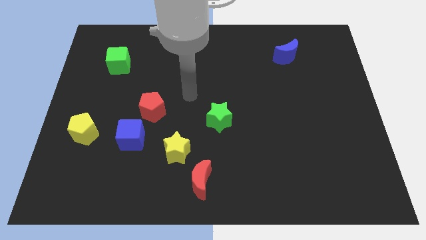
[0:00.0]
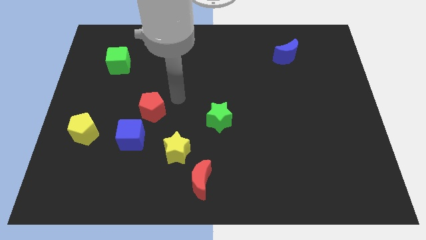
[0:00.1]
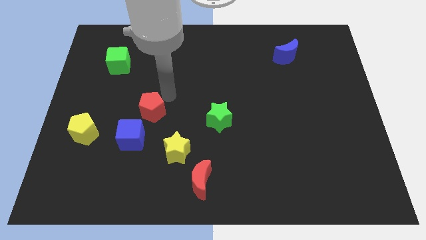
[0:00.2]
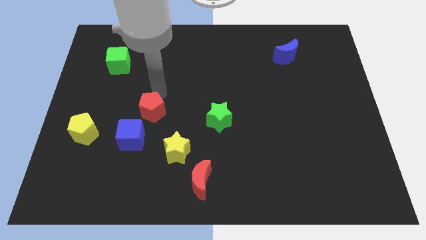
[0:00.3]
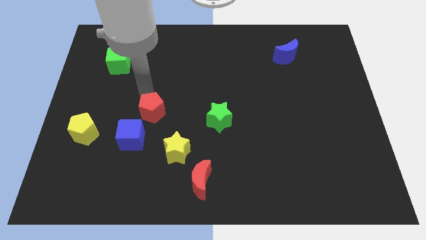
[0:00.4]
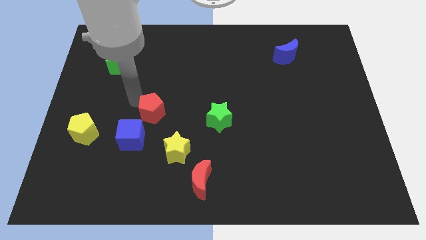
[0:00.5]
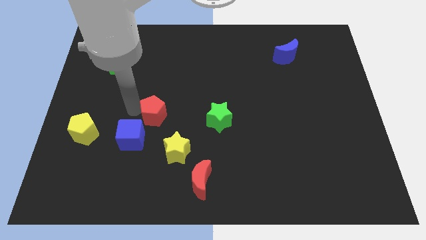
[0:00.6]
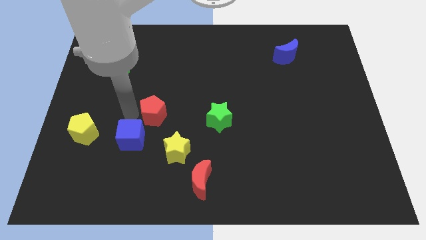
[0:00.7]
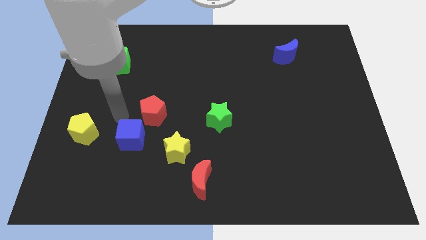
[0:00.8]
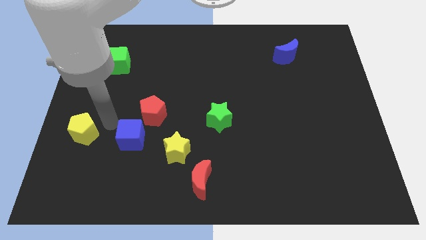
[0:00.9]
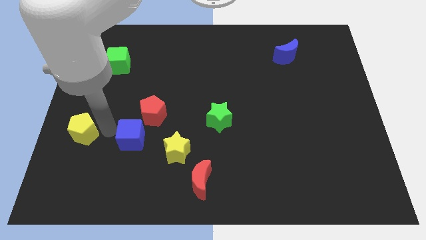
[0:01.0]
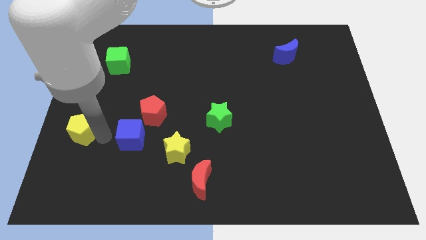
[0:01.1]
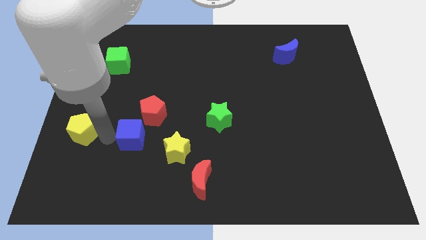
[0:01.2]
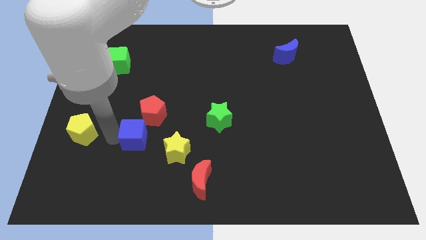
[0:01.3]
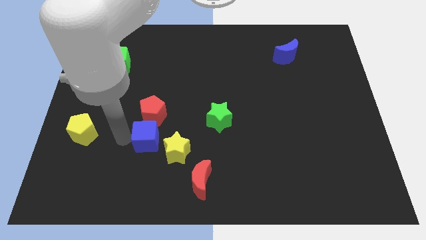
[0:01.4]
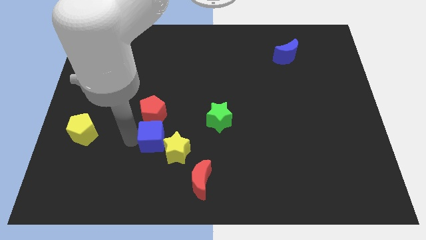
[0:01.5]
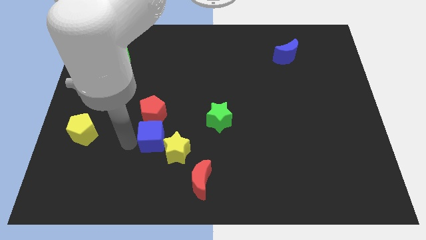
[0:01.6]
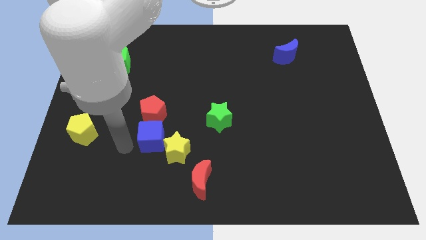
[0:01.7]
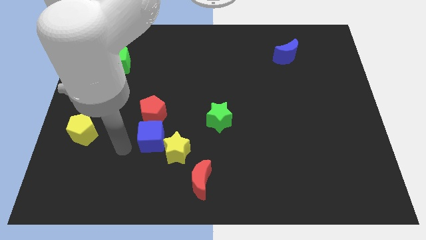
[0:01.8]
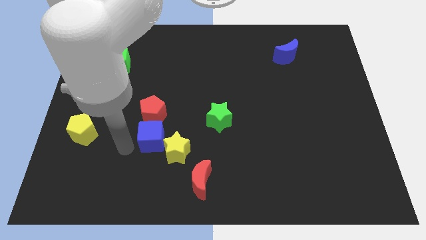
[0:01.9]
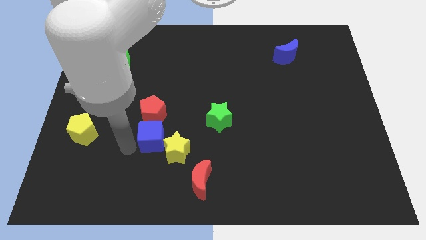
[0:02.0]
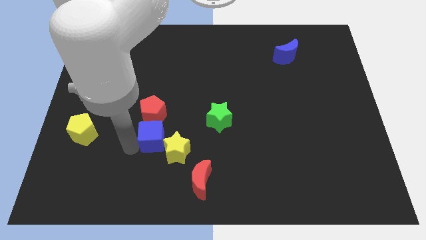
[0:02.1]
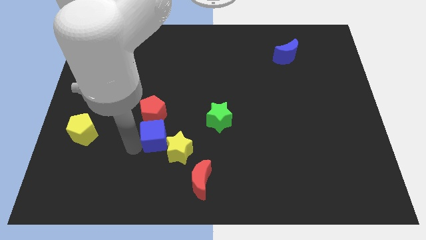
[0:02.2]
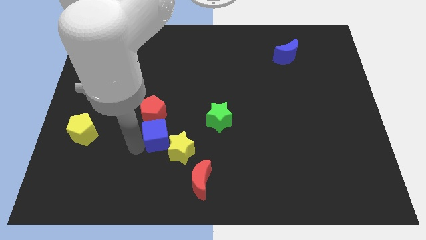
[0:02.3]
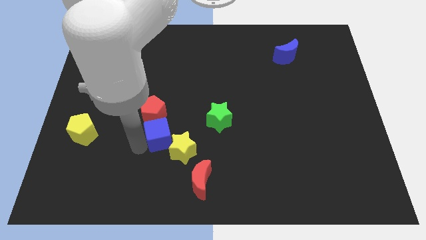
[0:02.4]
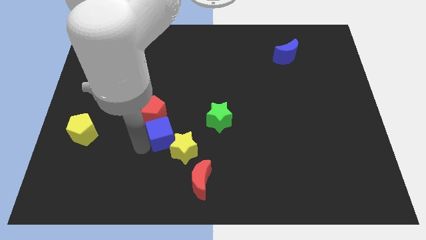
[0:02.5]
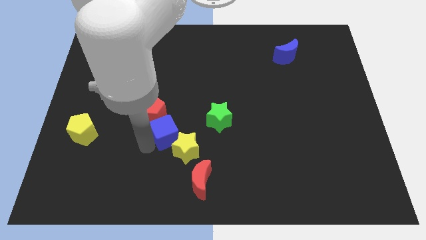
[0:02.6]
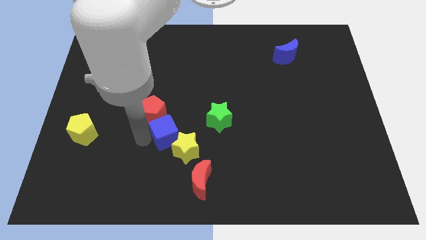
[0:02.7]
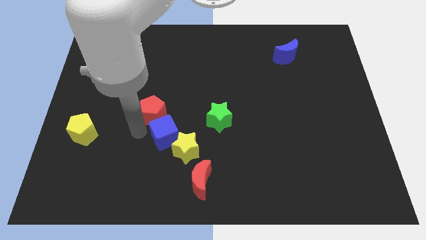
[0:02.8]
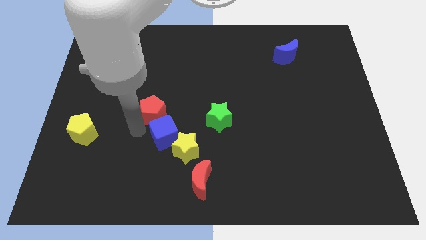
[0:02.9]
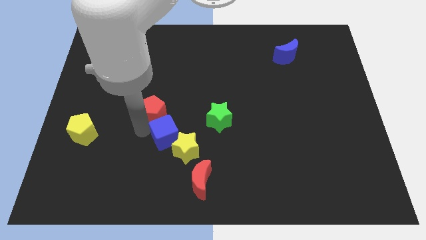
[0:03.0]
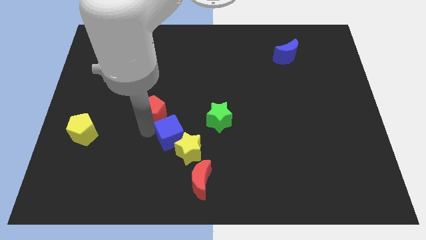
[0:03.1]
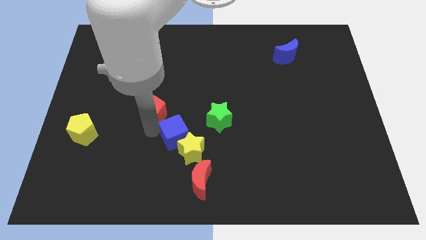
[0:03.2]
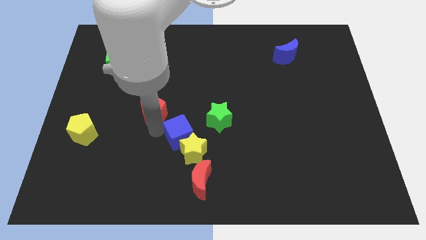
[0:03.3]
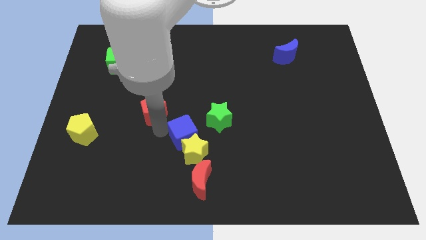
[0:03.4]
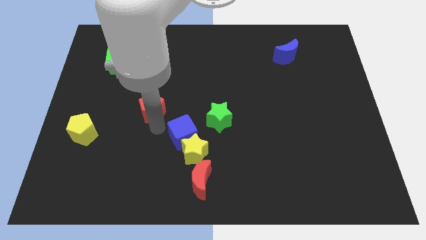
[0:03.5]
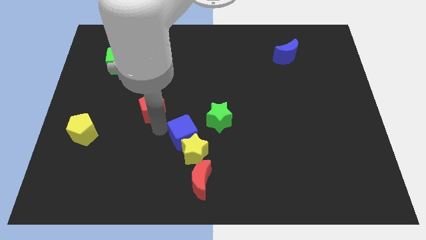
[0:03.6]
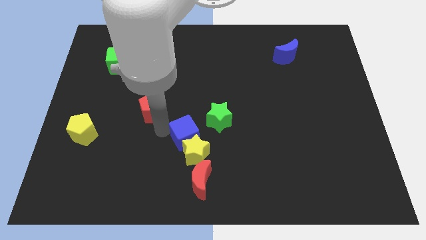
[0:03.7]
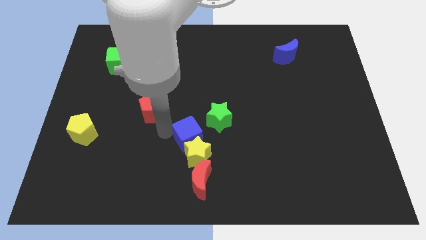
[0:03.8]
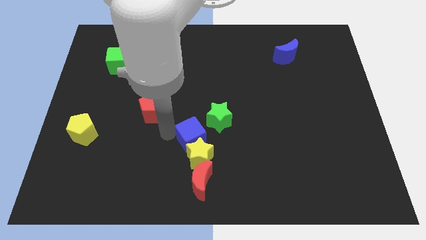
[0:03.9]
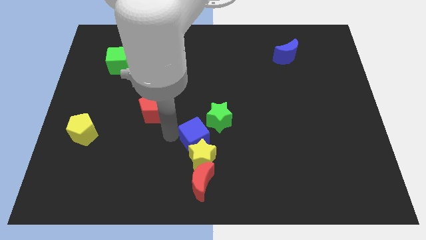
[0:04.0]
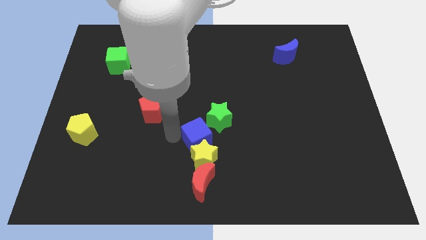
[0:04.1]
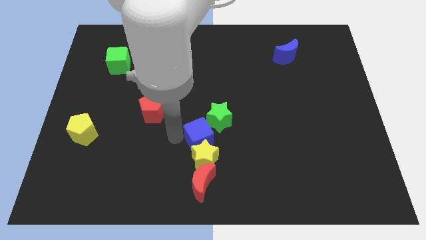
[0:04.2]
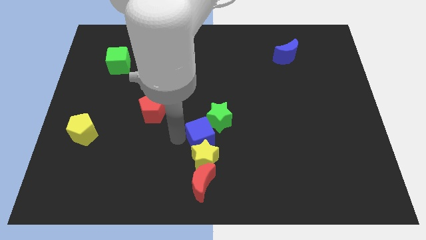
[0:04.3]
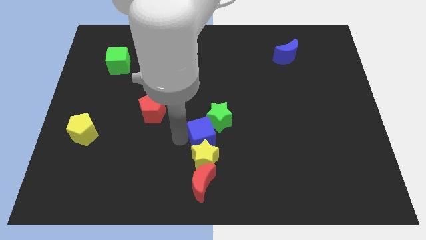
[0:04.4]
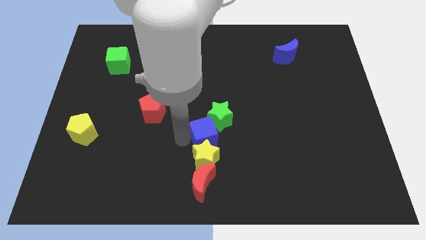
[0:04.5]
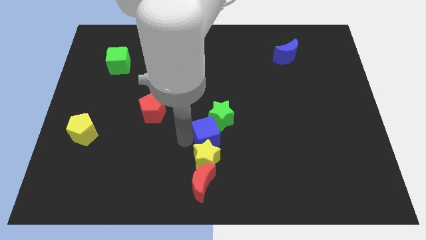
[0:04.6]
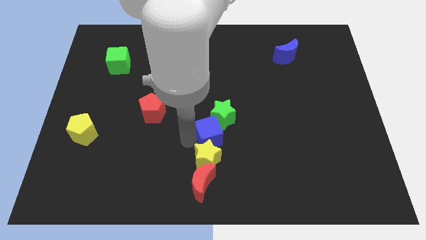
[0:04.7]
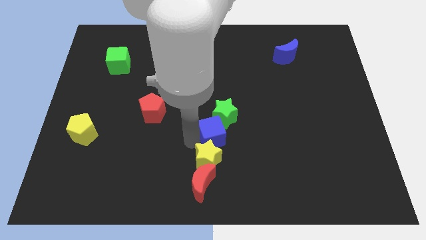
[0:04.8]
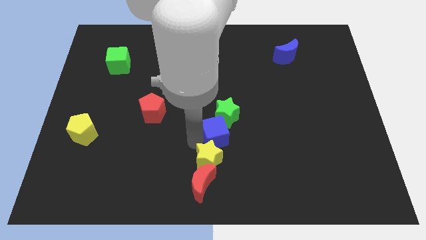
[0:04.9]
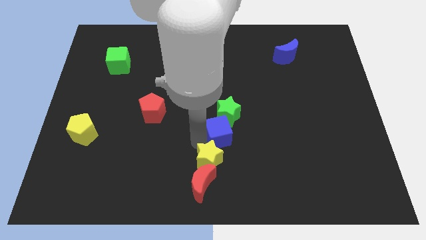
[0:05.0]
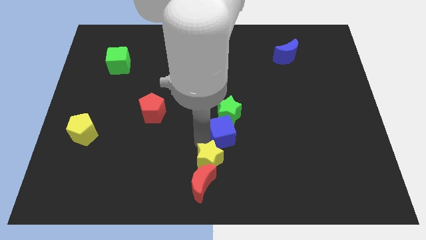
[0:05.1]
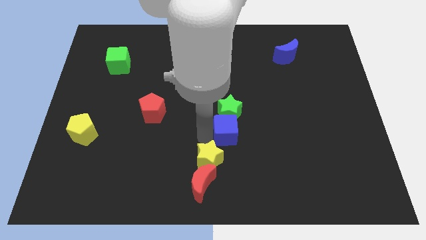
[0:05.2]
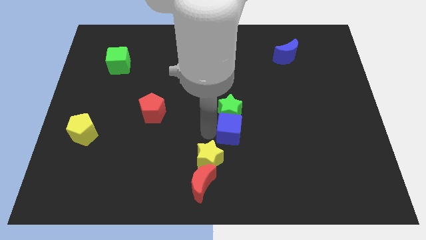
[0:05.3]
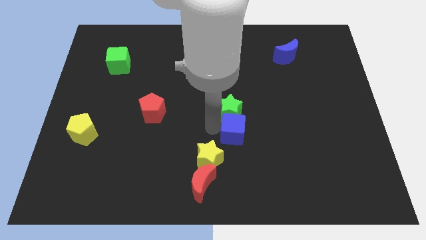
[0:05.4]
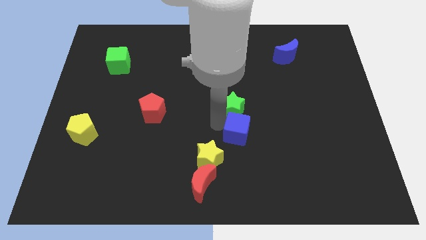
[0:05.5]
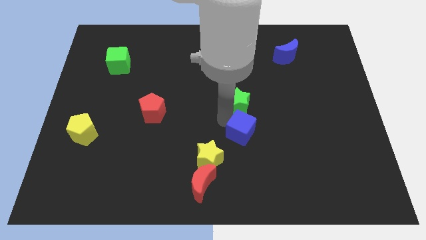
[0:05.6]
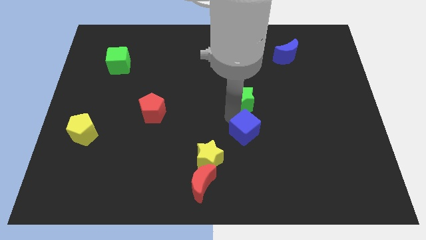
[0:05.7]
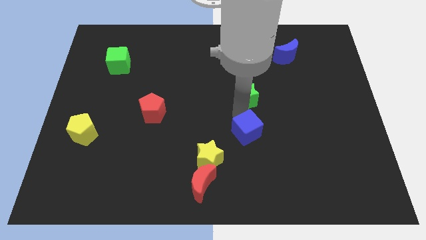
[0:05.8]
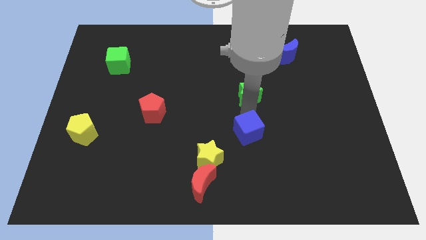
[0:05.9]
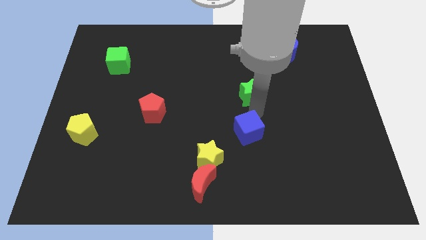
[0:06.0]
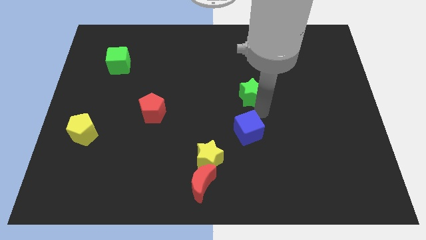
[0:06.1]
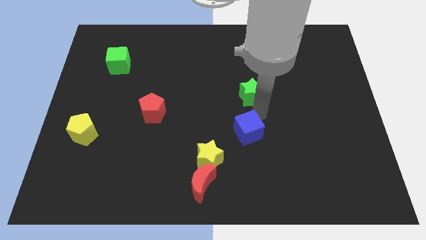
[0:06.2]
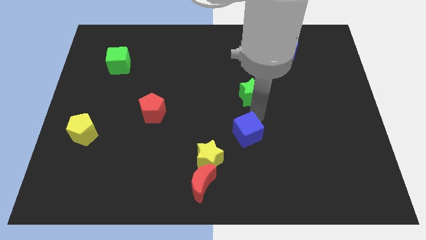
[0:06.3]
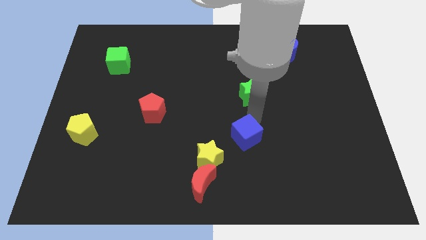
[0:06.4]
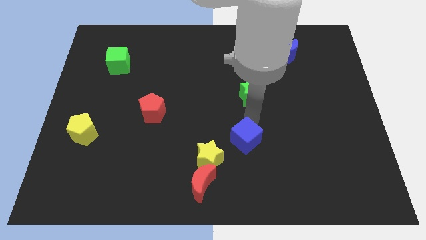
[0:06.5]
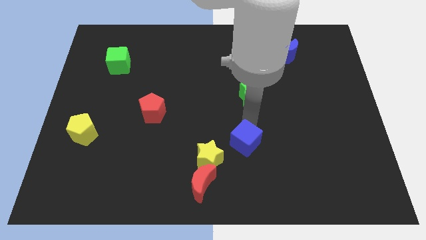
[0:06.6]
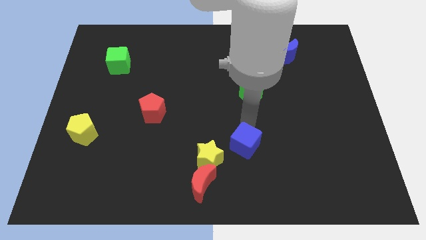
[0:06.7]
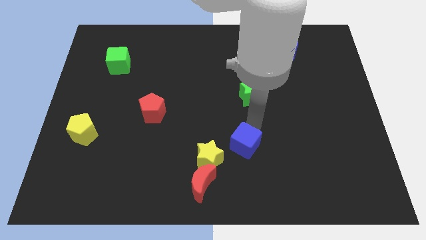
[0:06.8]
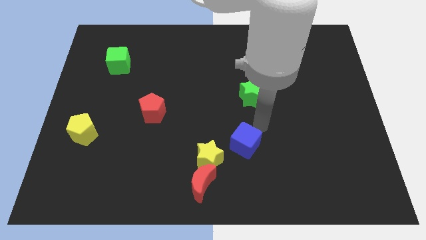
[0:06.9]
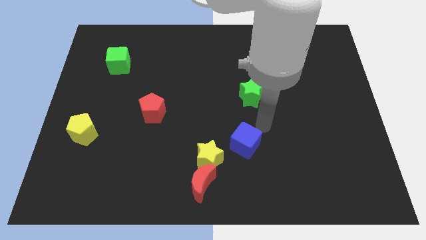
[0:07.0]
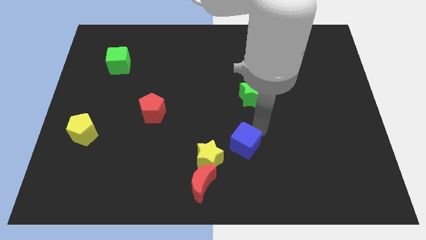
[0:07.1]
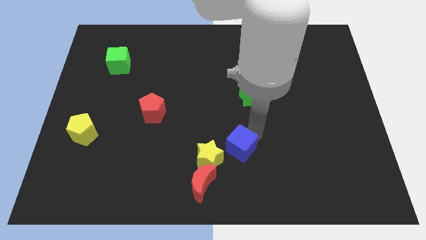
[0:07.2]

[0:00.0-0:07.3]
move the blue cube to the top right of the red moon
